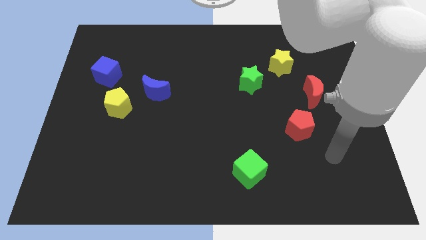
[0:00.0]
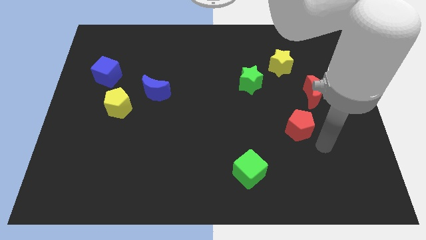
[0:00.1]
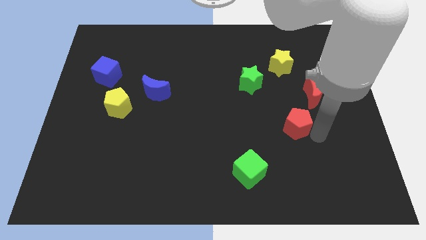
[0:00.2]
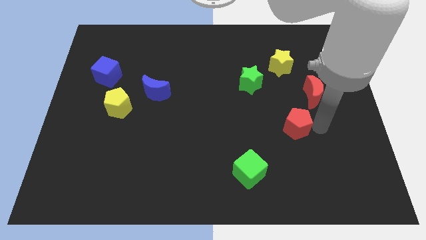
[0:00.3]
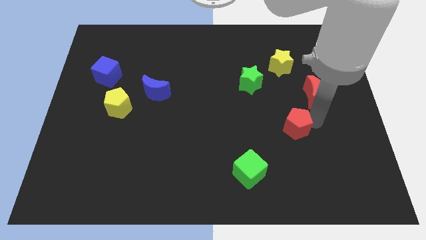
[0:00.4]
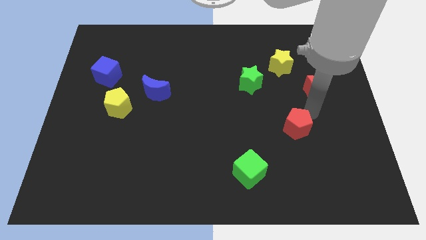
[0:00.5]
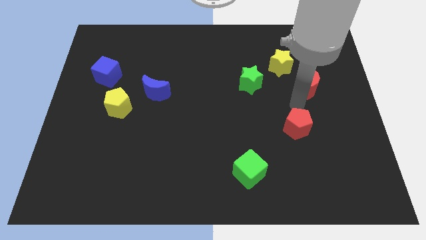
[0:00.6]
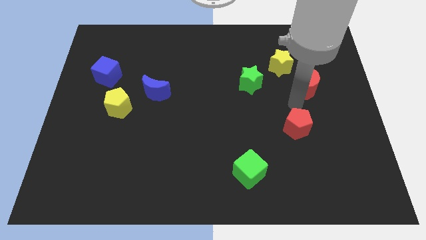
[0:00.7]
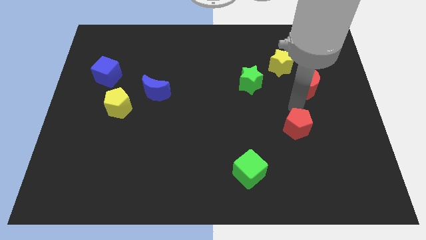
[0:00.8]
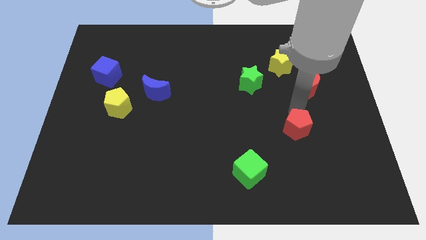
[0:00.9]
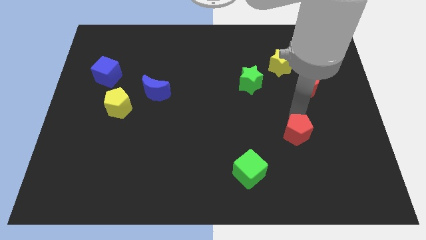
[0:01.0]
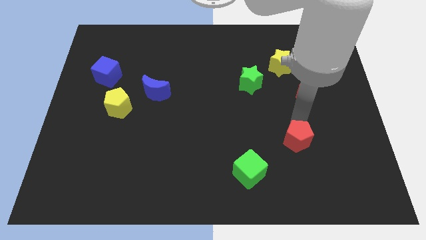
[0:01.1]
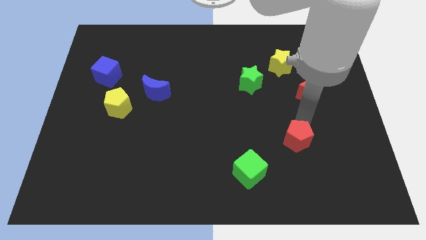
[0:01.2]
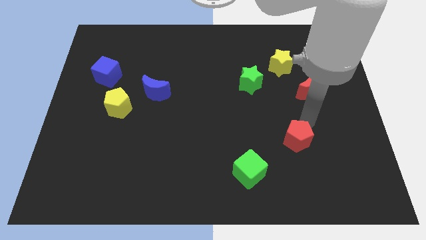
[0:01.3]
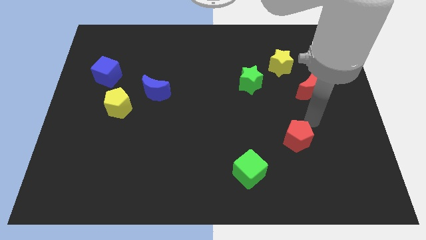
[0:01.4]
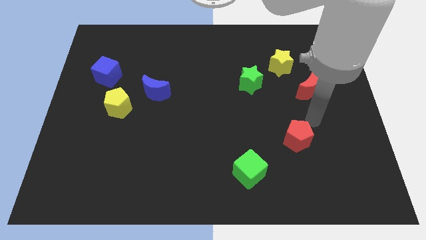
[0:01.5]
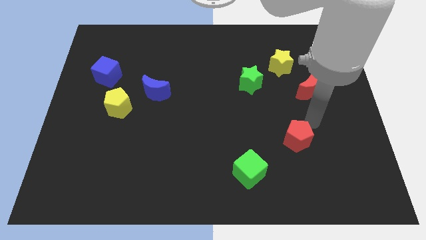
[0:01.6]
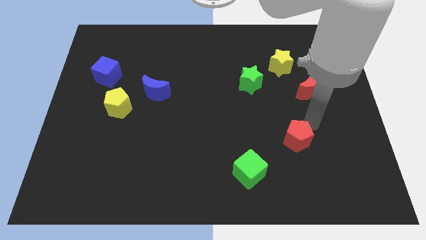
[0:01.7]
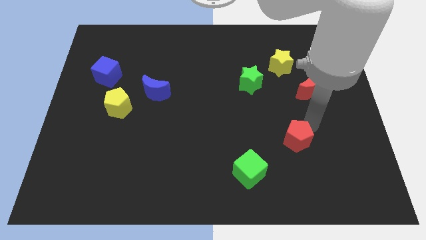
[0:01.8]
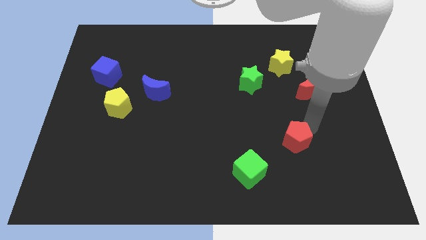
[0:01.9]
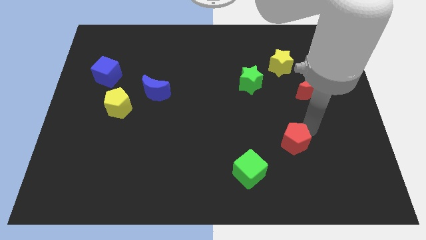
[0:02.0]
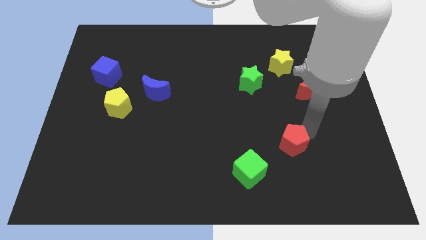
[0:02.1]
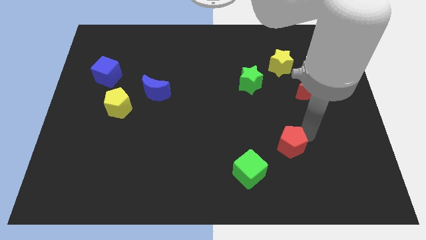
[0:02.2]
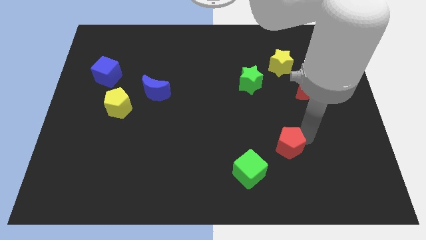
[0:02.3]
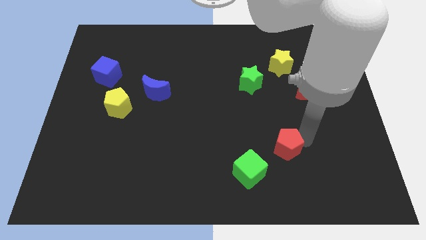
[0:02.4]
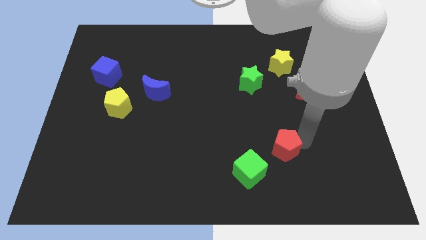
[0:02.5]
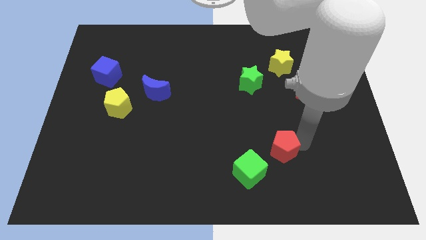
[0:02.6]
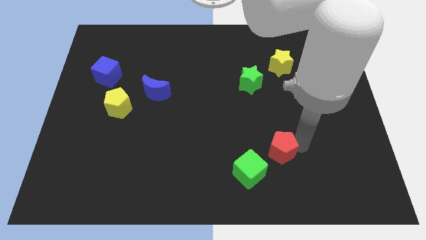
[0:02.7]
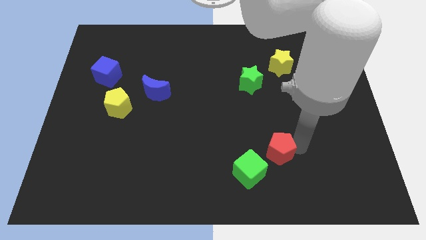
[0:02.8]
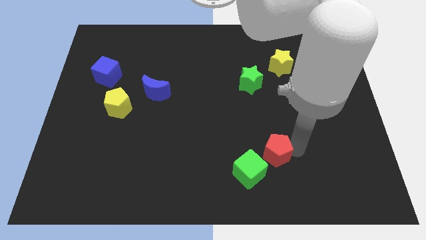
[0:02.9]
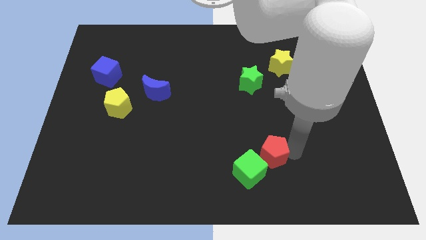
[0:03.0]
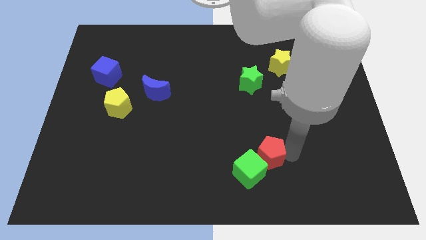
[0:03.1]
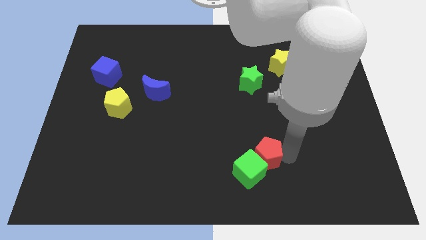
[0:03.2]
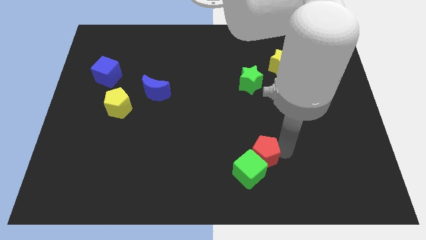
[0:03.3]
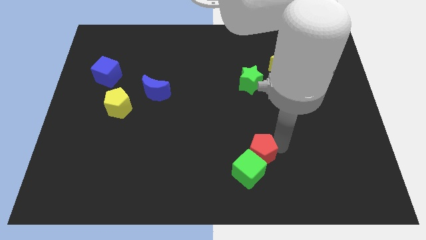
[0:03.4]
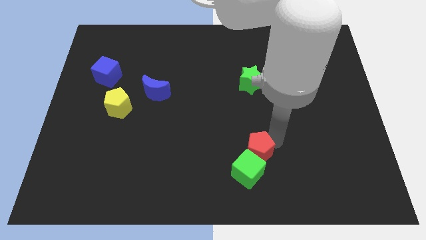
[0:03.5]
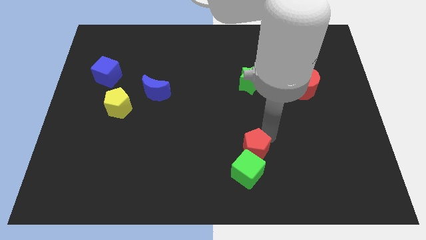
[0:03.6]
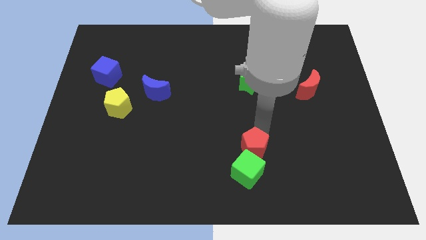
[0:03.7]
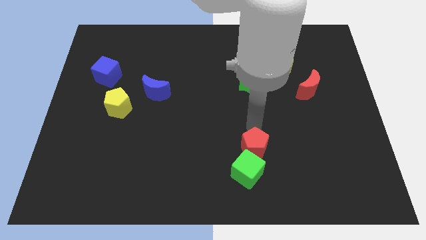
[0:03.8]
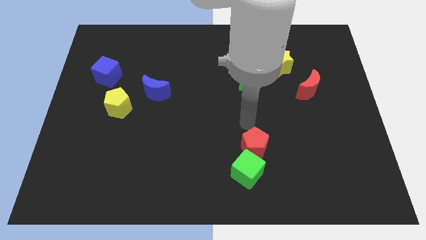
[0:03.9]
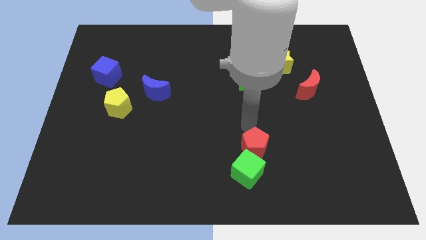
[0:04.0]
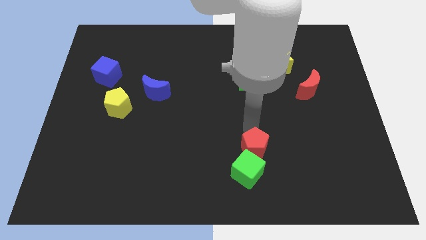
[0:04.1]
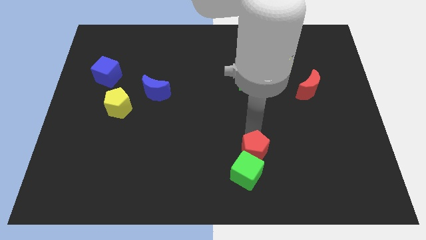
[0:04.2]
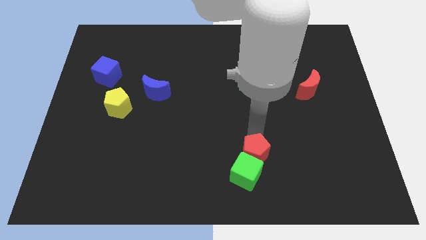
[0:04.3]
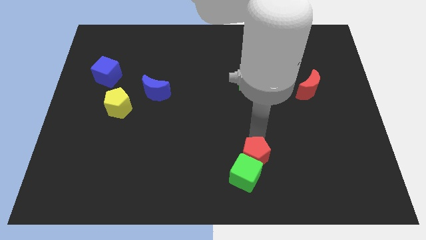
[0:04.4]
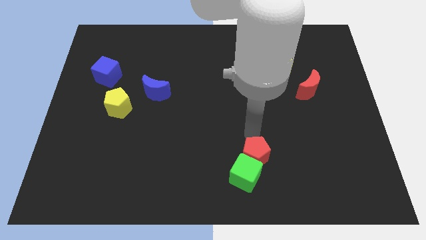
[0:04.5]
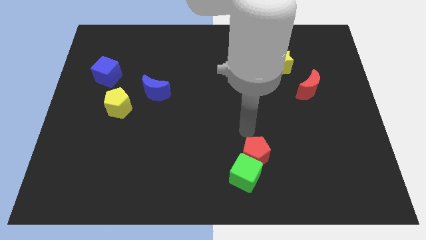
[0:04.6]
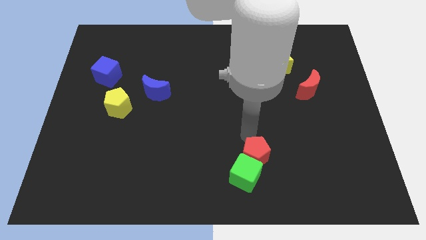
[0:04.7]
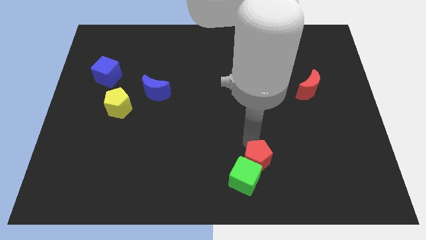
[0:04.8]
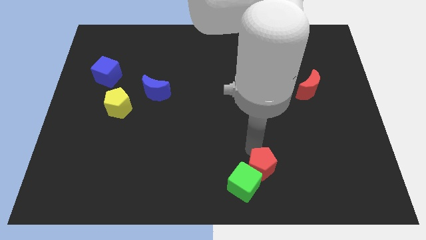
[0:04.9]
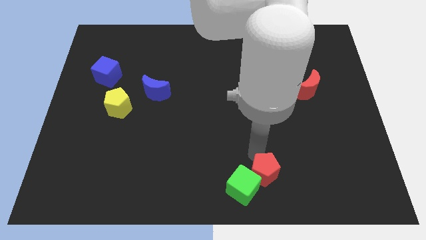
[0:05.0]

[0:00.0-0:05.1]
move the red pentagon to the bottom

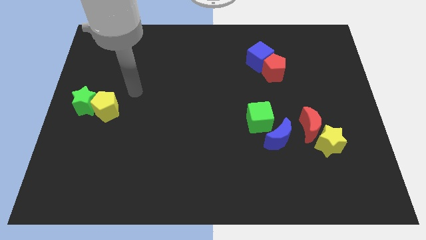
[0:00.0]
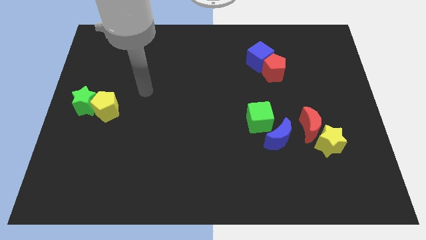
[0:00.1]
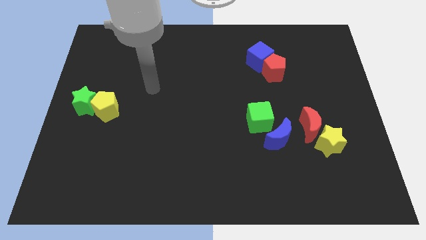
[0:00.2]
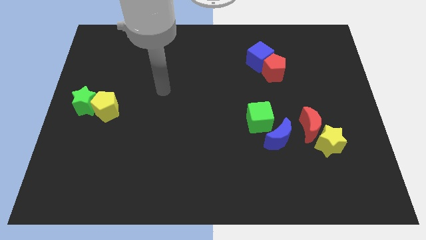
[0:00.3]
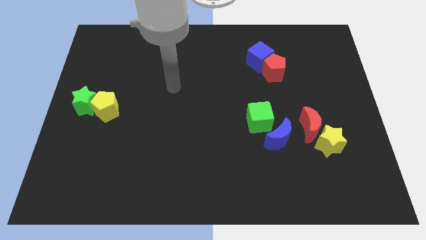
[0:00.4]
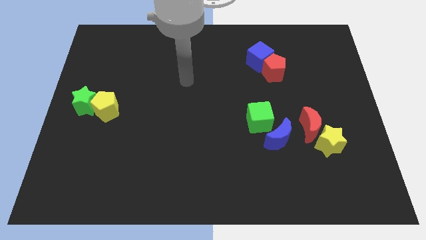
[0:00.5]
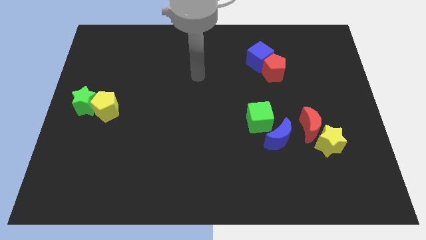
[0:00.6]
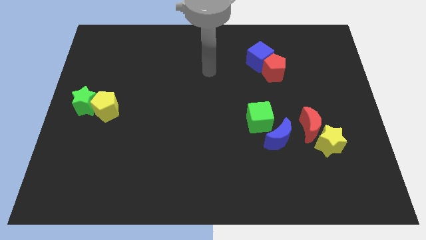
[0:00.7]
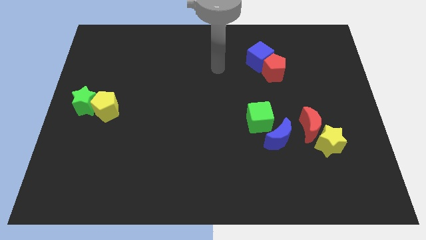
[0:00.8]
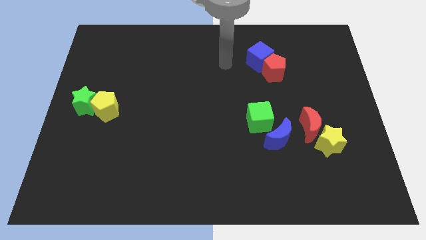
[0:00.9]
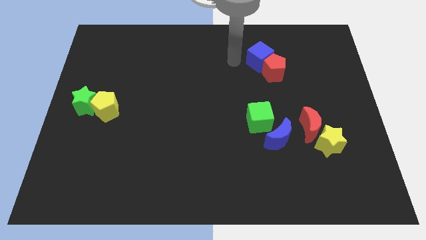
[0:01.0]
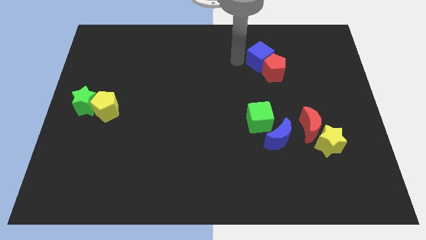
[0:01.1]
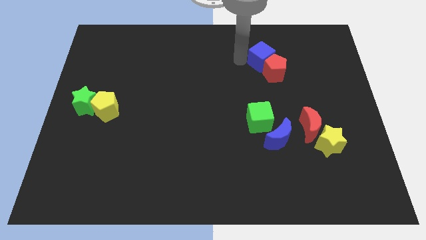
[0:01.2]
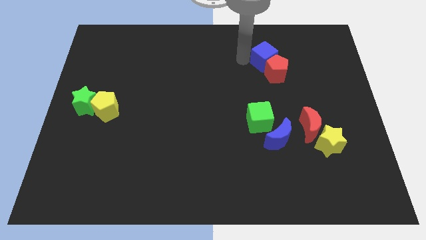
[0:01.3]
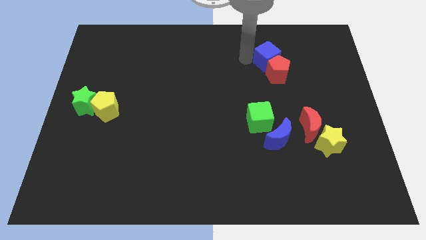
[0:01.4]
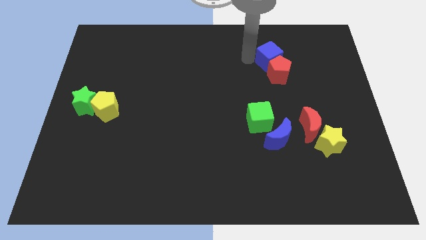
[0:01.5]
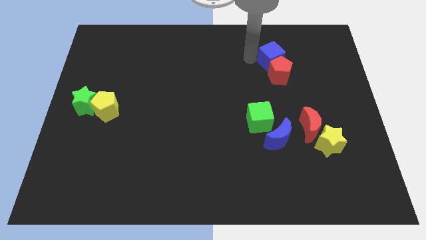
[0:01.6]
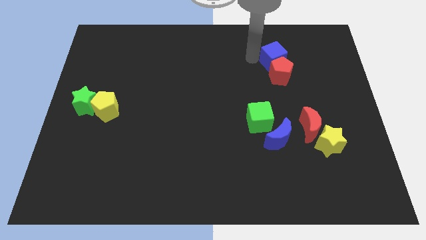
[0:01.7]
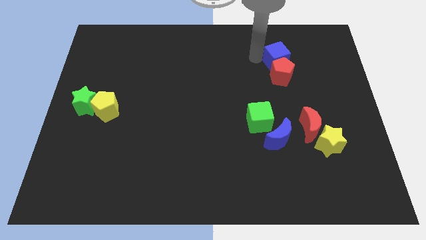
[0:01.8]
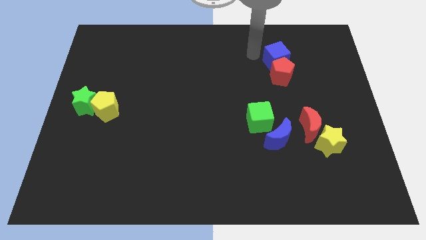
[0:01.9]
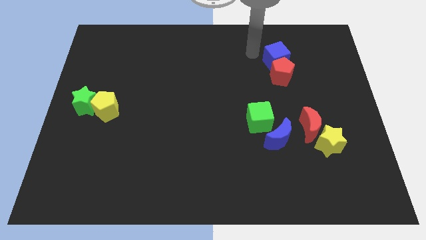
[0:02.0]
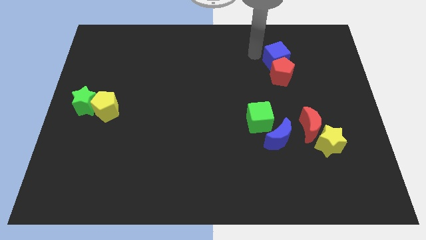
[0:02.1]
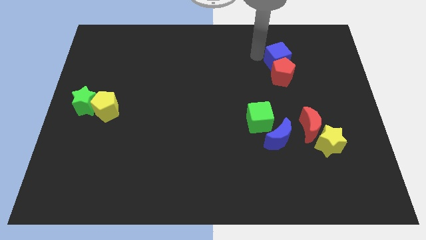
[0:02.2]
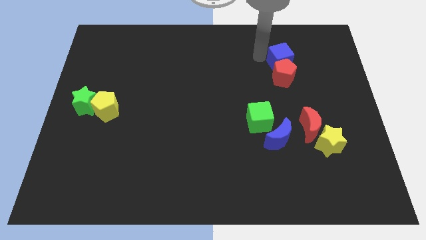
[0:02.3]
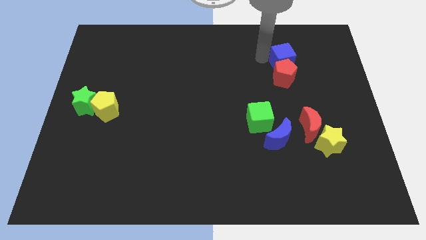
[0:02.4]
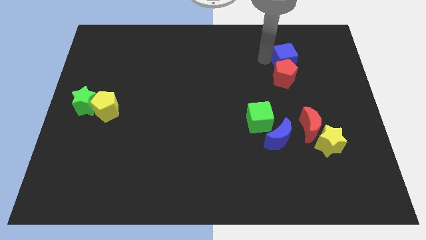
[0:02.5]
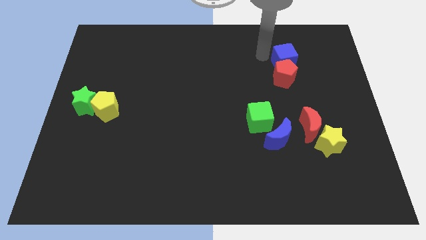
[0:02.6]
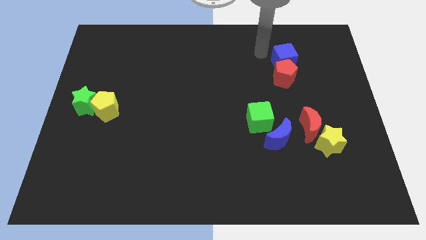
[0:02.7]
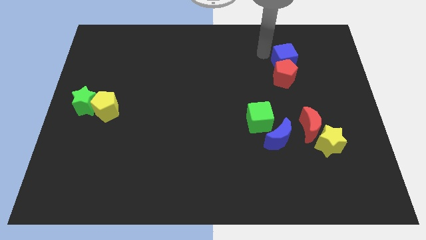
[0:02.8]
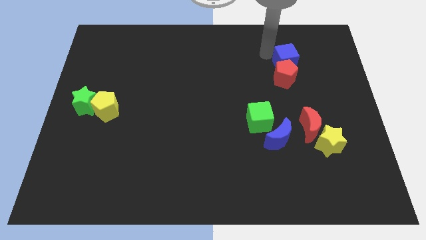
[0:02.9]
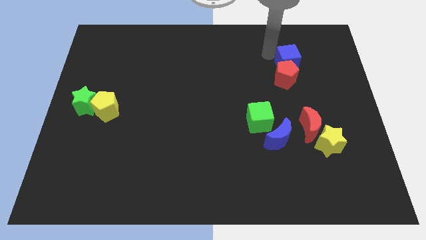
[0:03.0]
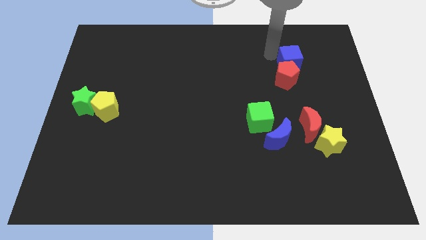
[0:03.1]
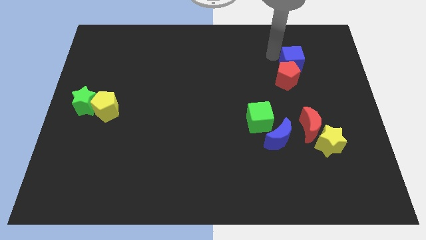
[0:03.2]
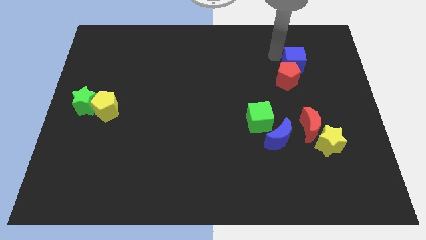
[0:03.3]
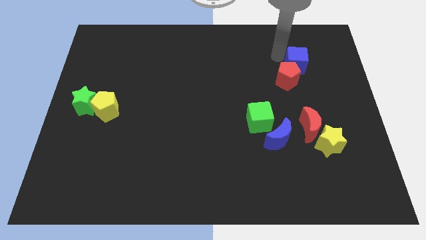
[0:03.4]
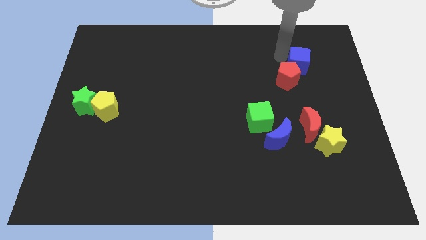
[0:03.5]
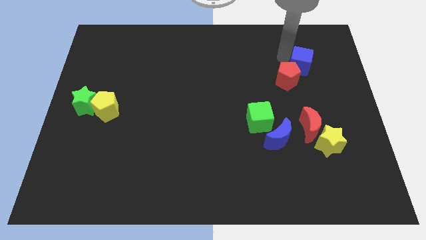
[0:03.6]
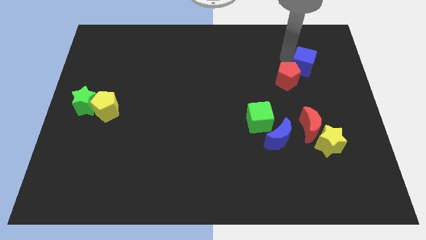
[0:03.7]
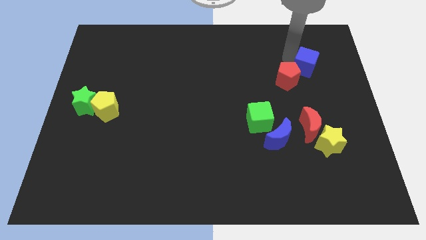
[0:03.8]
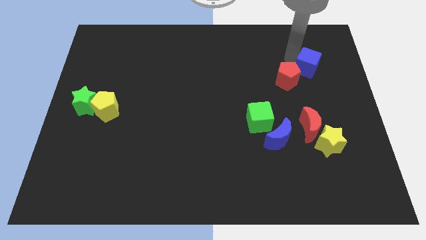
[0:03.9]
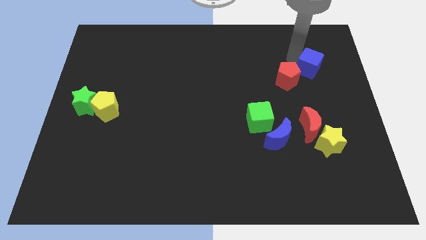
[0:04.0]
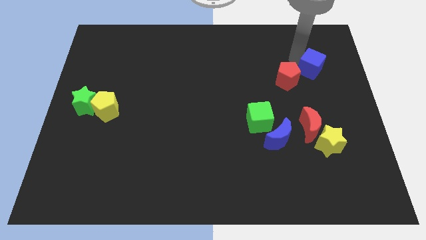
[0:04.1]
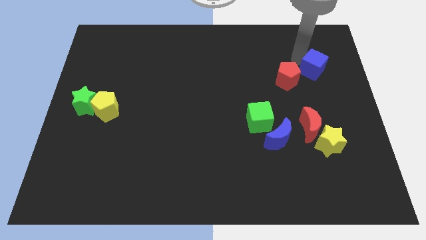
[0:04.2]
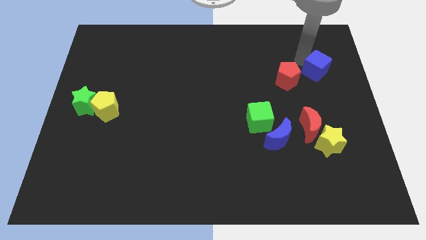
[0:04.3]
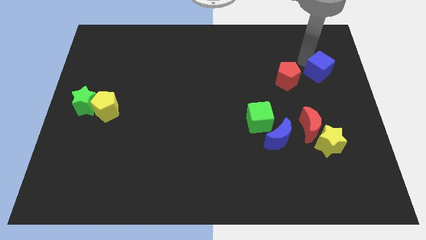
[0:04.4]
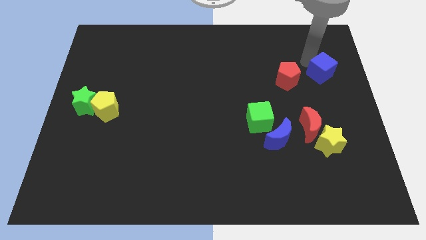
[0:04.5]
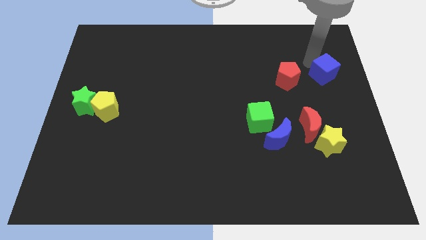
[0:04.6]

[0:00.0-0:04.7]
slide the blue cube to the right side of the board
